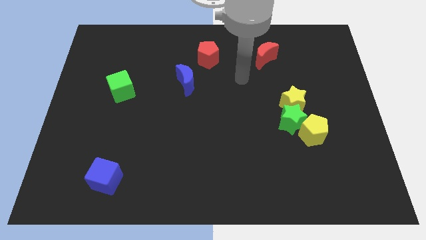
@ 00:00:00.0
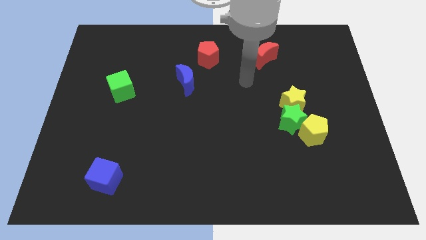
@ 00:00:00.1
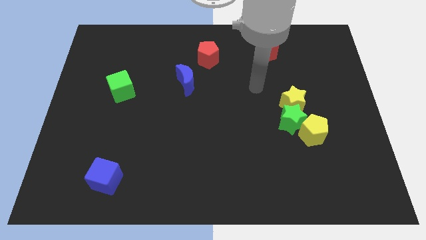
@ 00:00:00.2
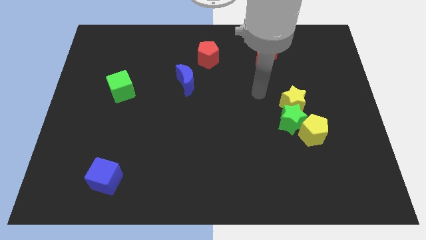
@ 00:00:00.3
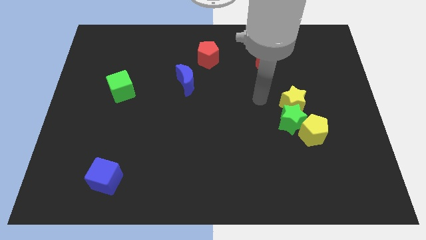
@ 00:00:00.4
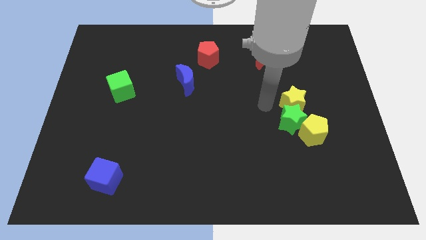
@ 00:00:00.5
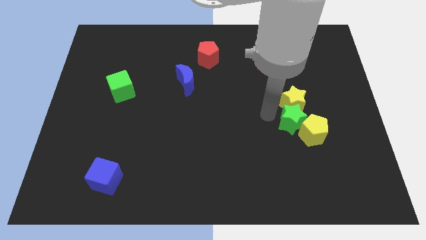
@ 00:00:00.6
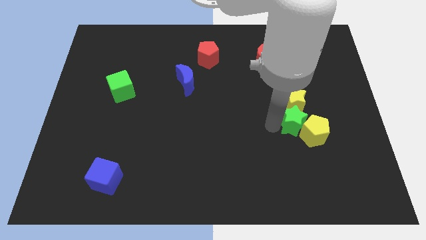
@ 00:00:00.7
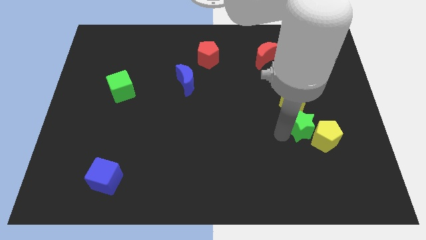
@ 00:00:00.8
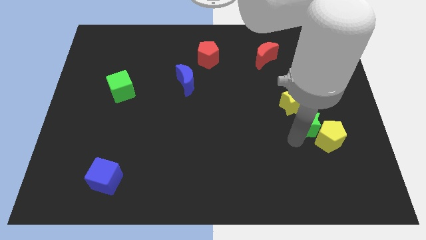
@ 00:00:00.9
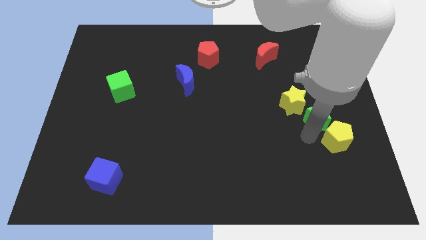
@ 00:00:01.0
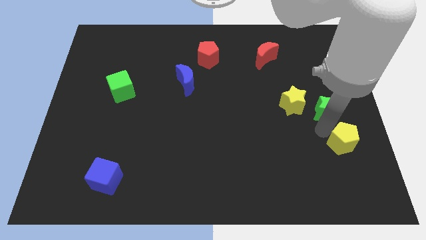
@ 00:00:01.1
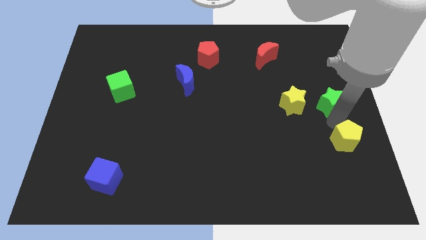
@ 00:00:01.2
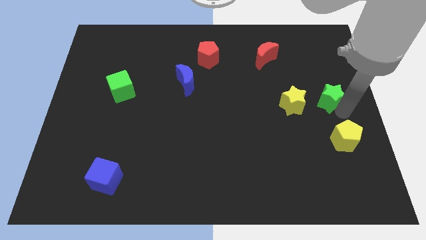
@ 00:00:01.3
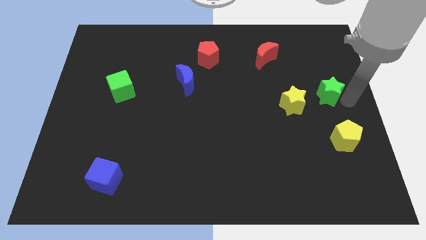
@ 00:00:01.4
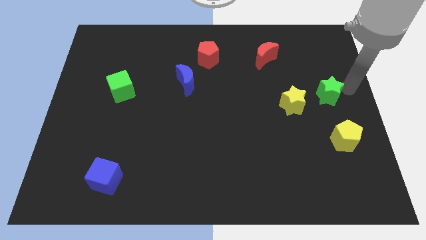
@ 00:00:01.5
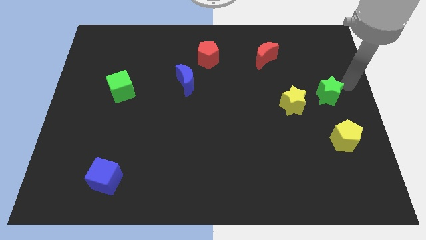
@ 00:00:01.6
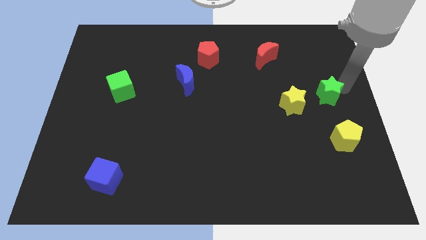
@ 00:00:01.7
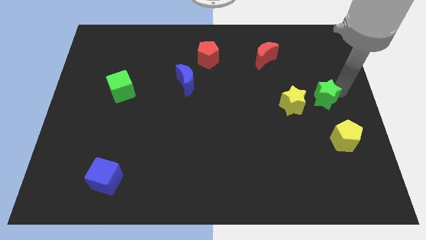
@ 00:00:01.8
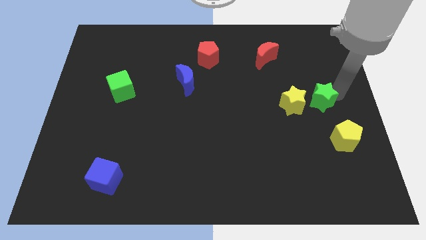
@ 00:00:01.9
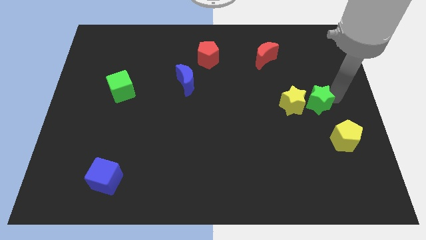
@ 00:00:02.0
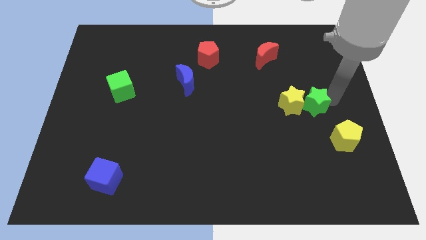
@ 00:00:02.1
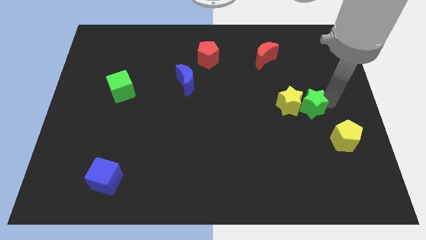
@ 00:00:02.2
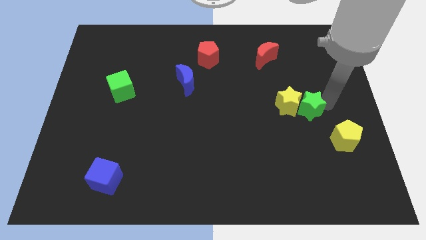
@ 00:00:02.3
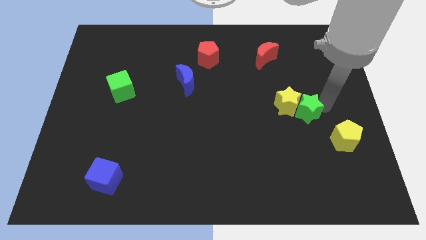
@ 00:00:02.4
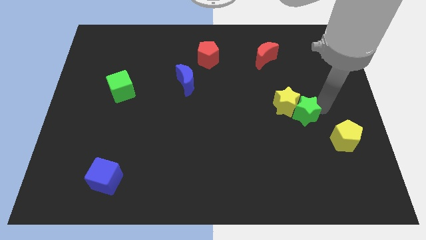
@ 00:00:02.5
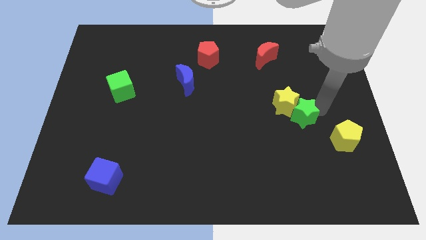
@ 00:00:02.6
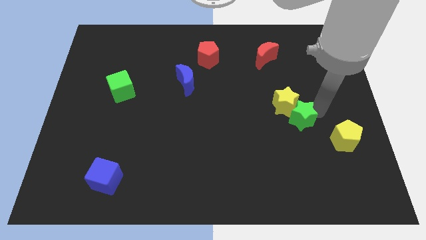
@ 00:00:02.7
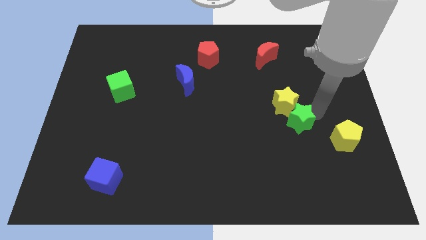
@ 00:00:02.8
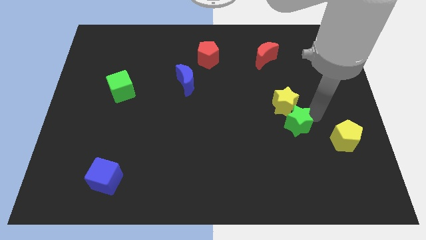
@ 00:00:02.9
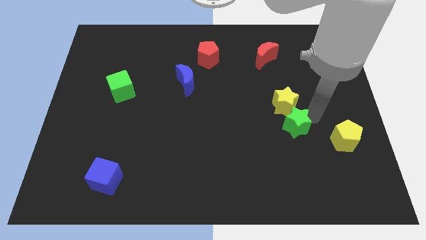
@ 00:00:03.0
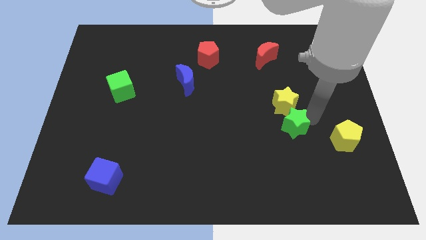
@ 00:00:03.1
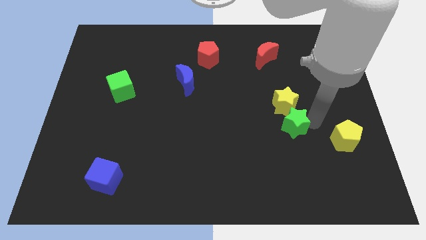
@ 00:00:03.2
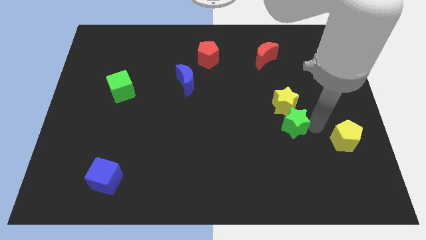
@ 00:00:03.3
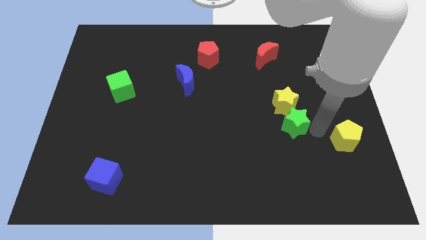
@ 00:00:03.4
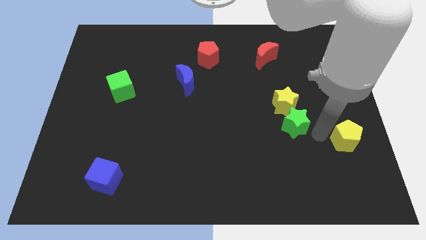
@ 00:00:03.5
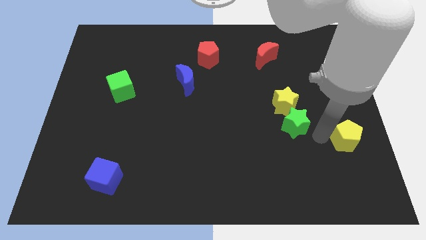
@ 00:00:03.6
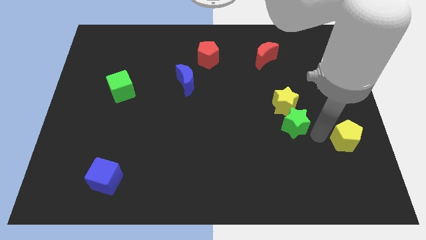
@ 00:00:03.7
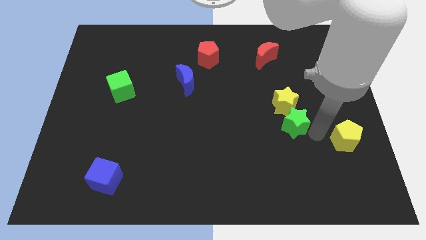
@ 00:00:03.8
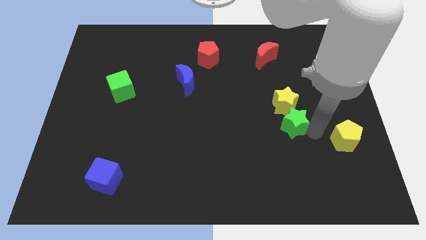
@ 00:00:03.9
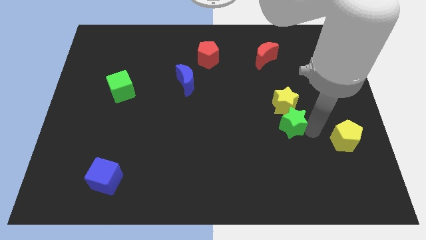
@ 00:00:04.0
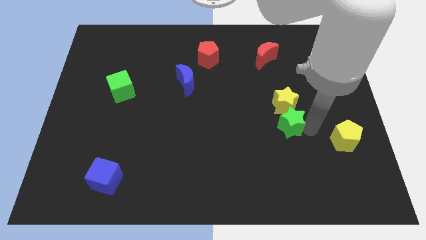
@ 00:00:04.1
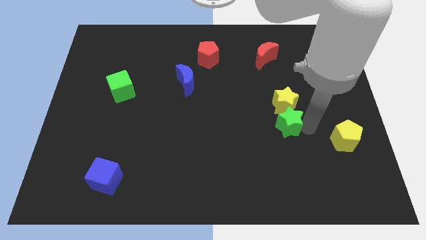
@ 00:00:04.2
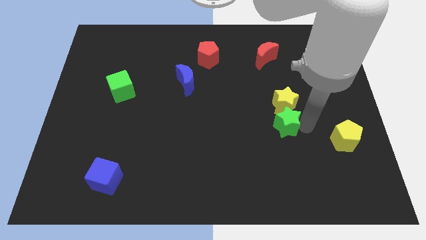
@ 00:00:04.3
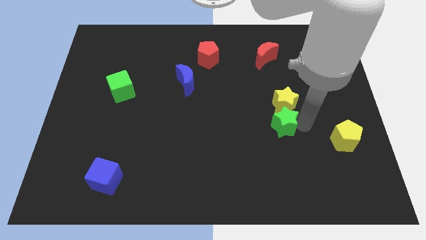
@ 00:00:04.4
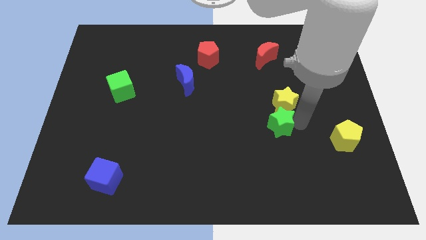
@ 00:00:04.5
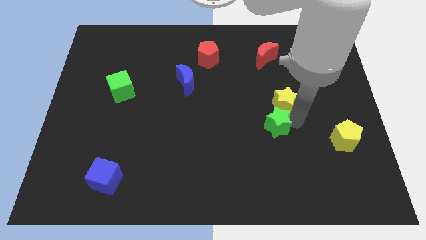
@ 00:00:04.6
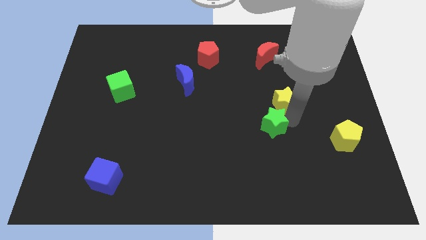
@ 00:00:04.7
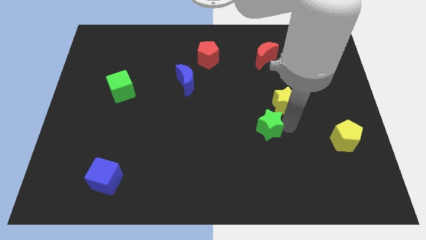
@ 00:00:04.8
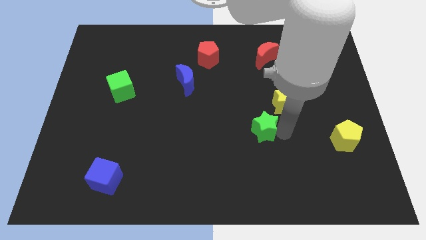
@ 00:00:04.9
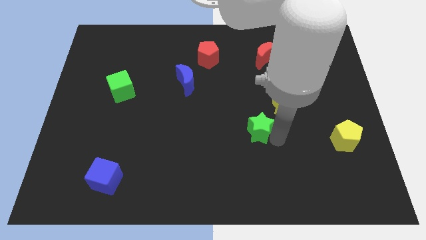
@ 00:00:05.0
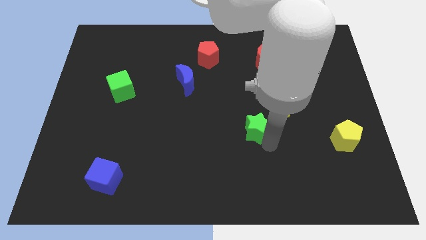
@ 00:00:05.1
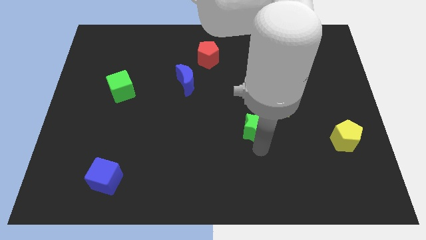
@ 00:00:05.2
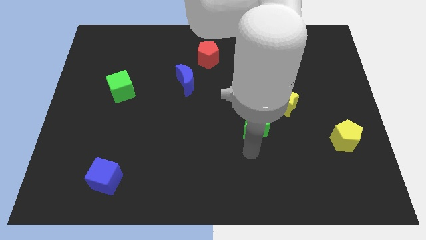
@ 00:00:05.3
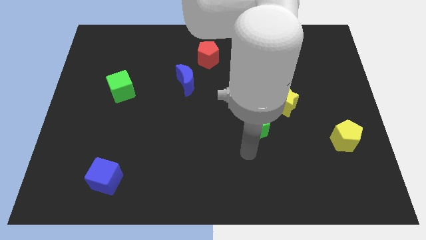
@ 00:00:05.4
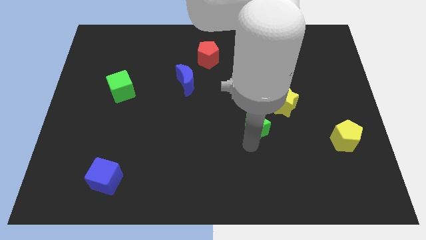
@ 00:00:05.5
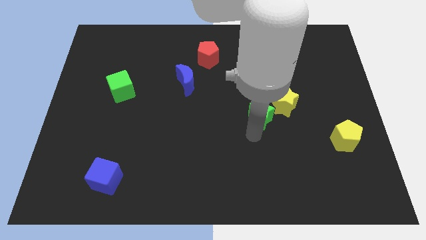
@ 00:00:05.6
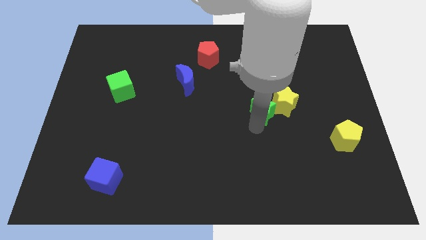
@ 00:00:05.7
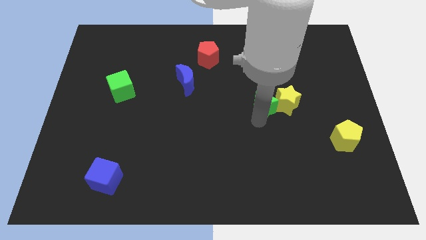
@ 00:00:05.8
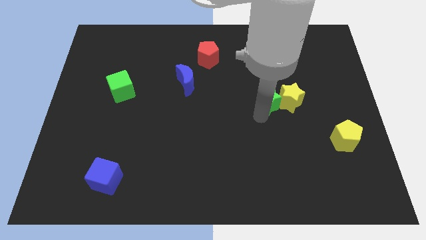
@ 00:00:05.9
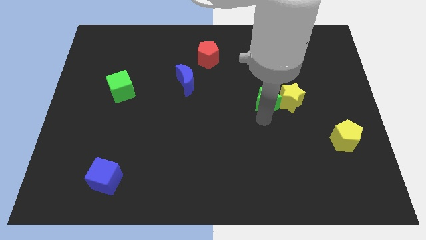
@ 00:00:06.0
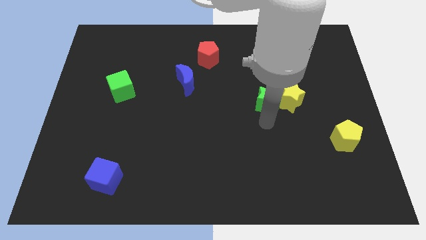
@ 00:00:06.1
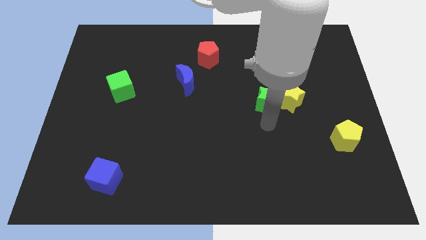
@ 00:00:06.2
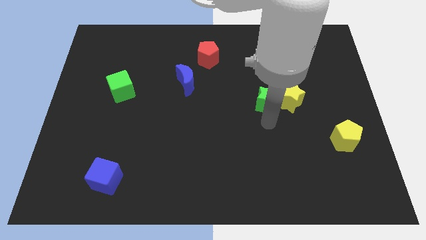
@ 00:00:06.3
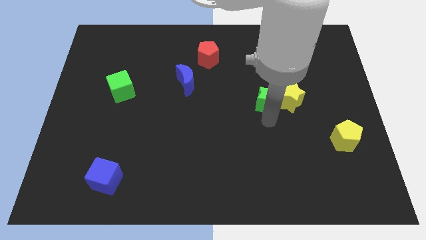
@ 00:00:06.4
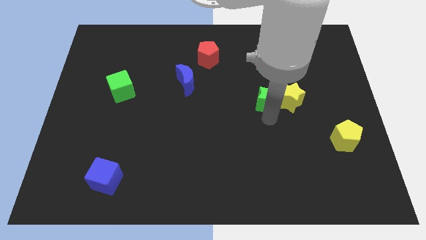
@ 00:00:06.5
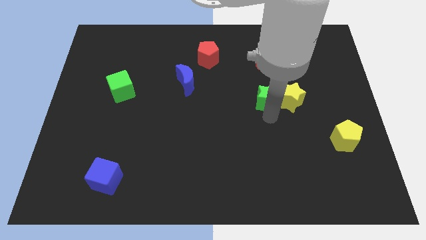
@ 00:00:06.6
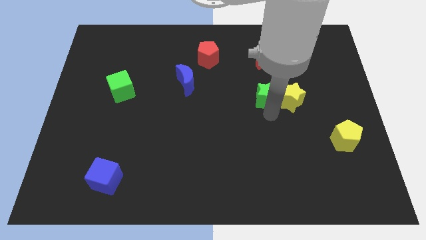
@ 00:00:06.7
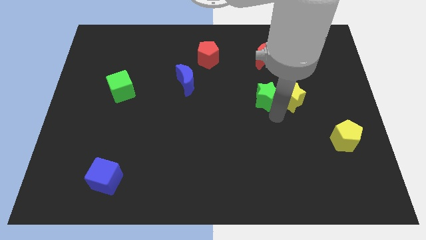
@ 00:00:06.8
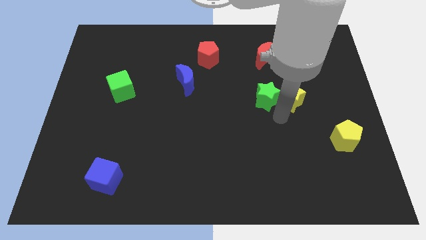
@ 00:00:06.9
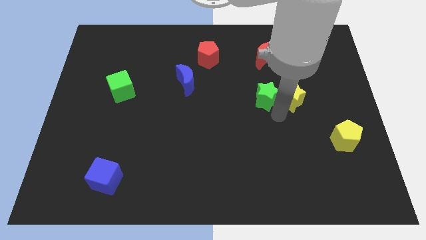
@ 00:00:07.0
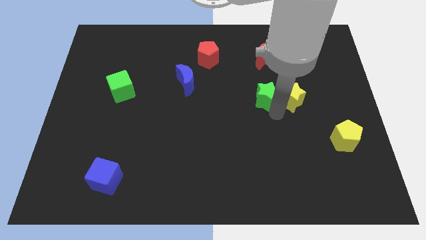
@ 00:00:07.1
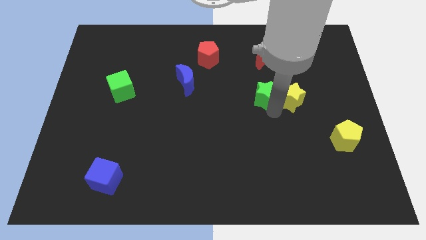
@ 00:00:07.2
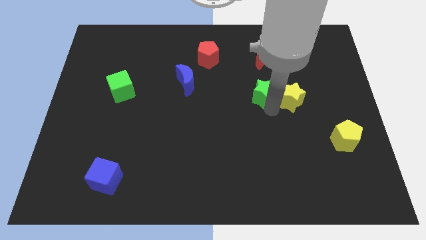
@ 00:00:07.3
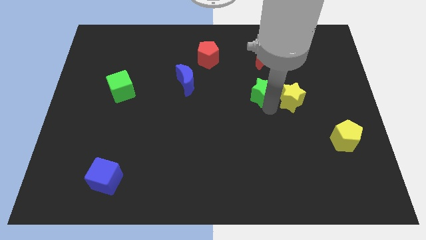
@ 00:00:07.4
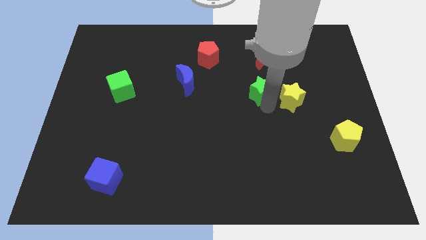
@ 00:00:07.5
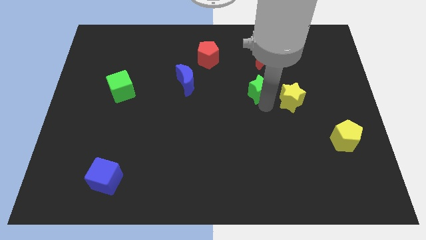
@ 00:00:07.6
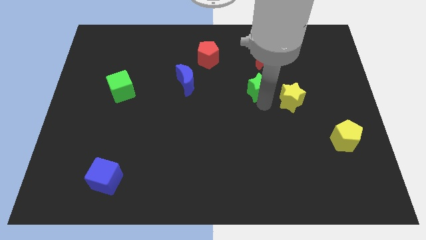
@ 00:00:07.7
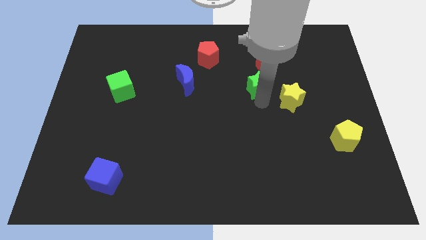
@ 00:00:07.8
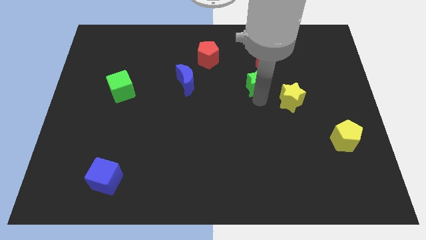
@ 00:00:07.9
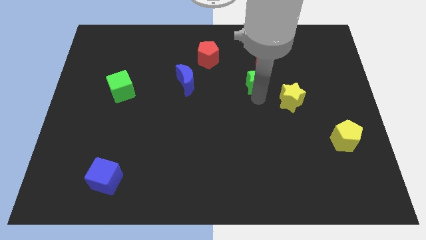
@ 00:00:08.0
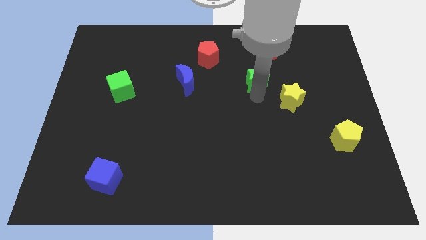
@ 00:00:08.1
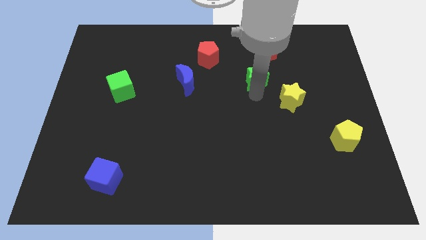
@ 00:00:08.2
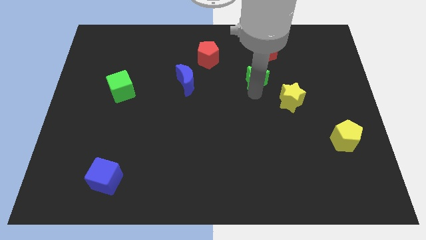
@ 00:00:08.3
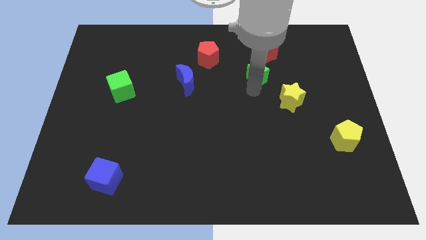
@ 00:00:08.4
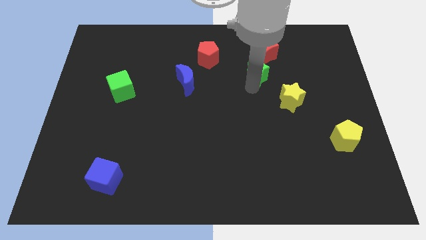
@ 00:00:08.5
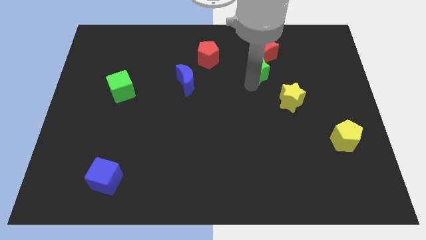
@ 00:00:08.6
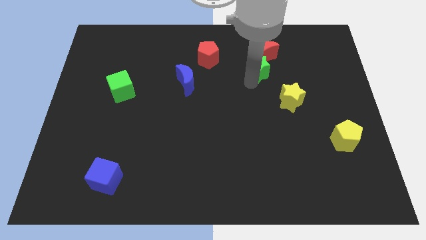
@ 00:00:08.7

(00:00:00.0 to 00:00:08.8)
push the green star towards the red moon
